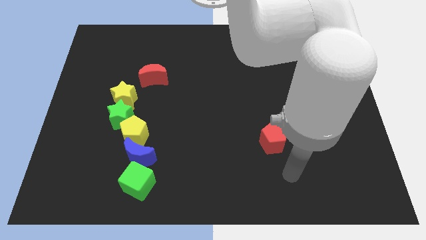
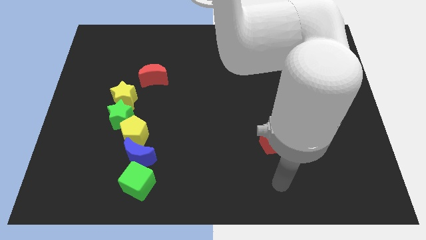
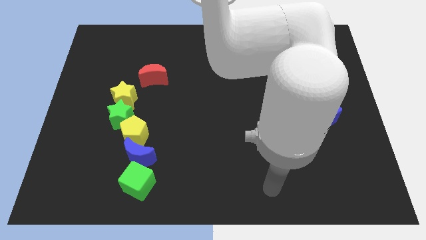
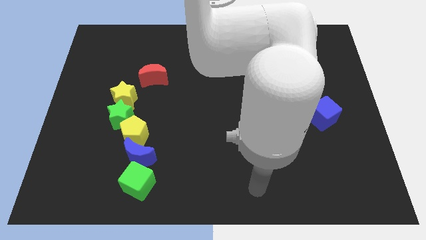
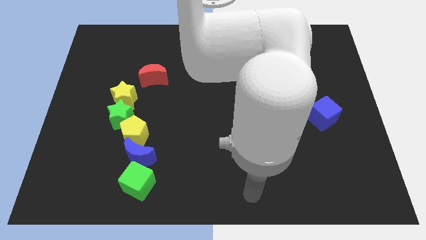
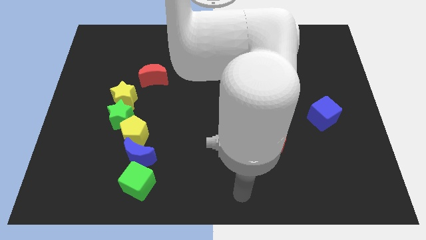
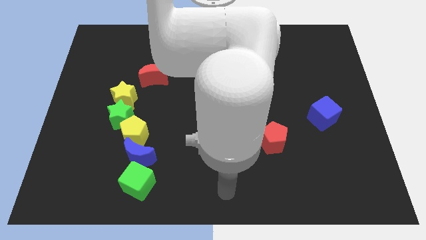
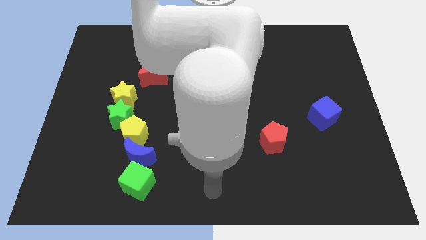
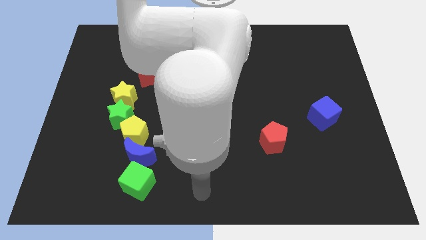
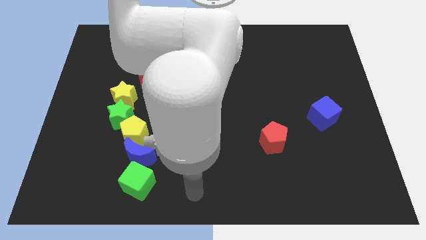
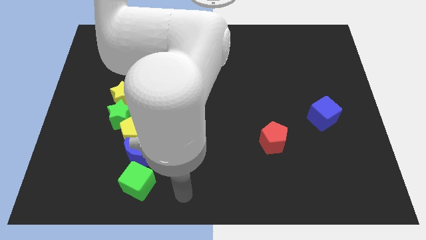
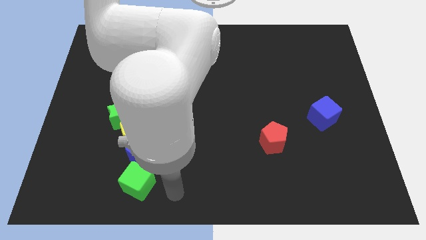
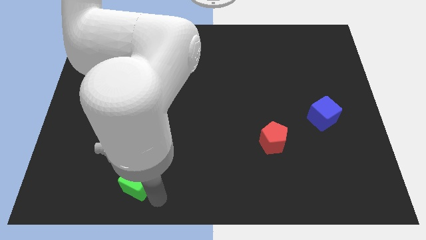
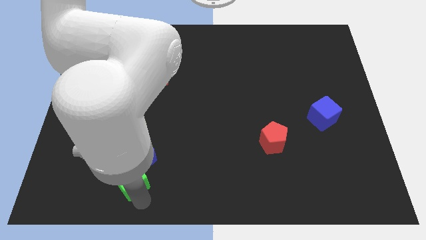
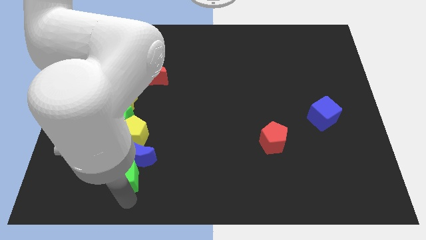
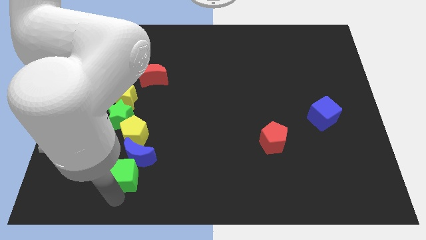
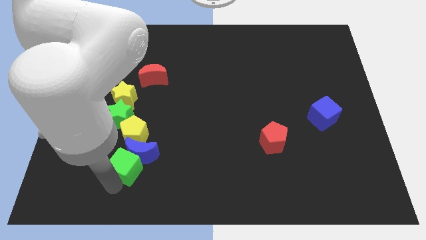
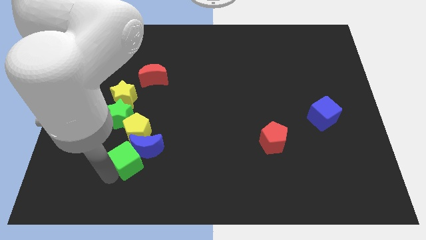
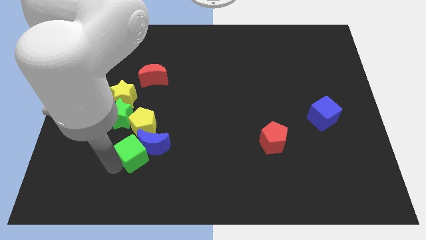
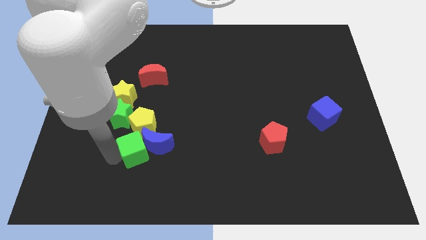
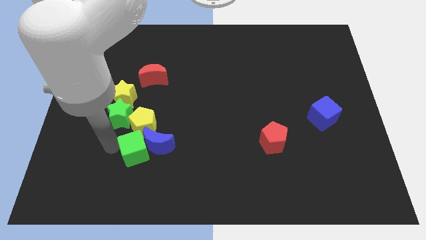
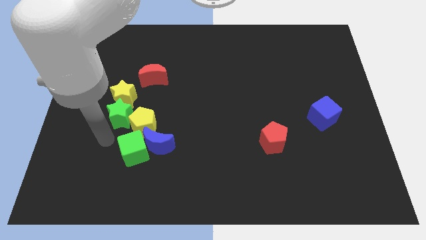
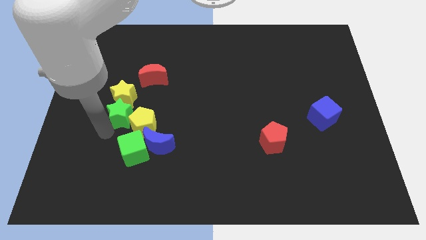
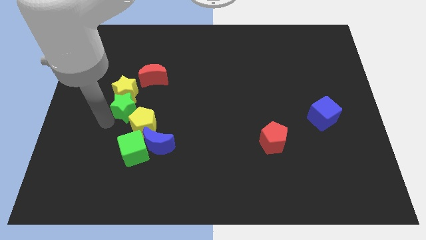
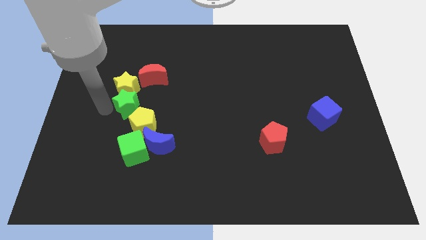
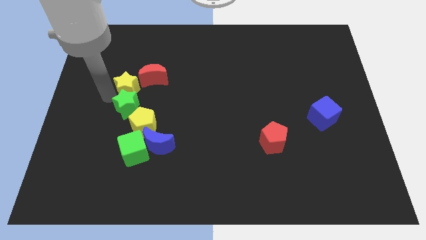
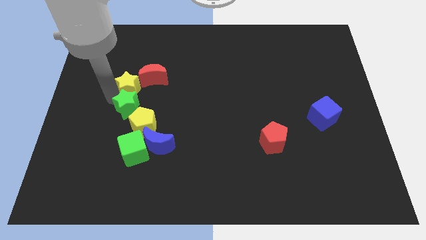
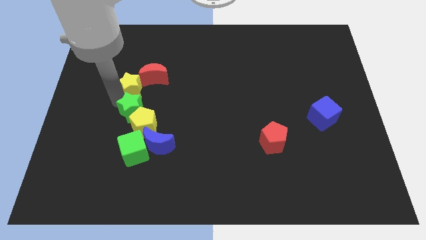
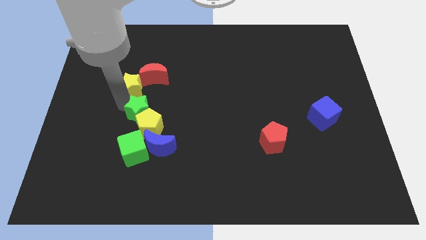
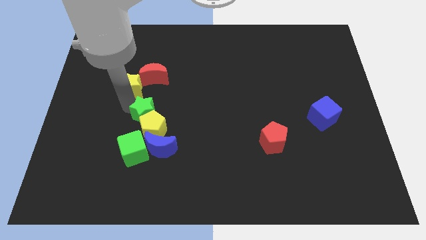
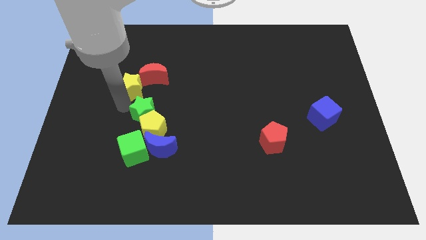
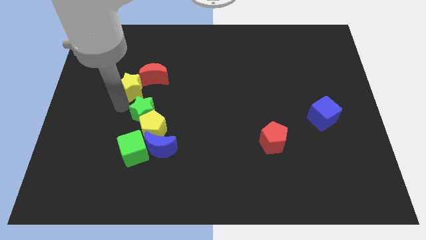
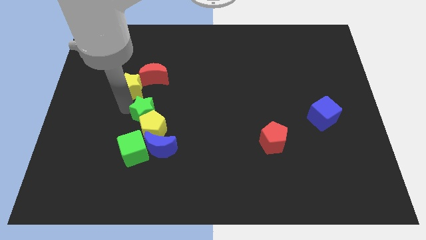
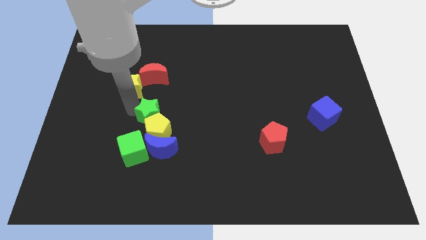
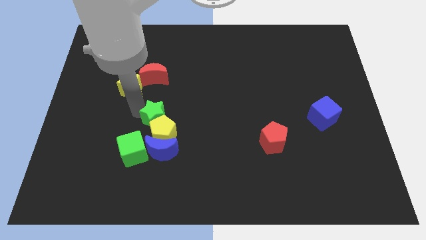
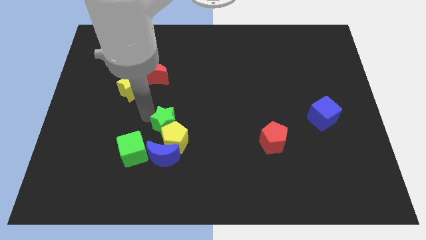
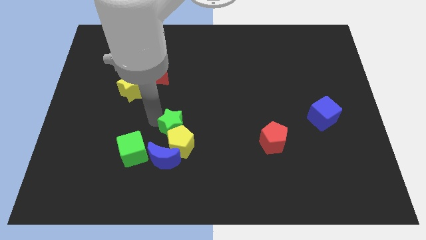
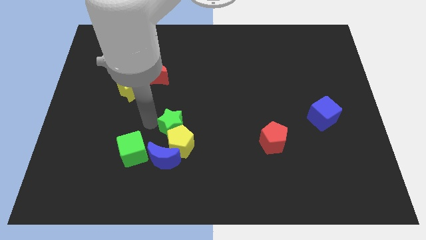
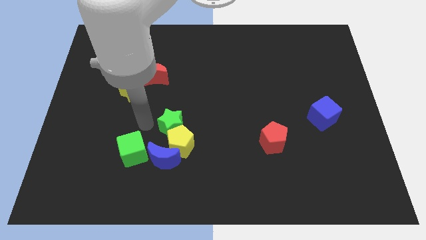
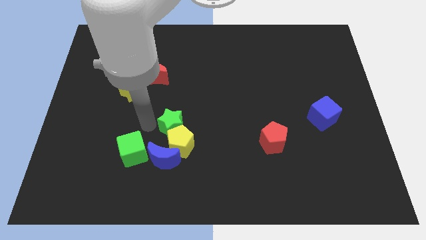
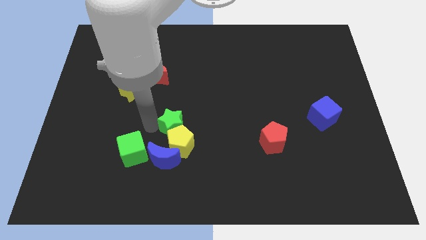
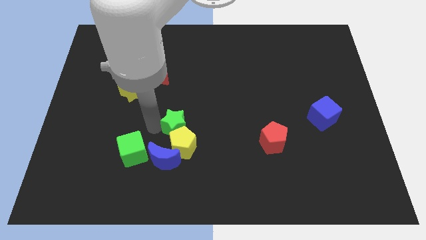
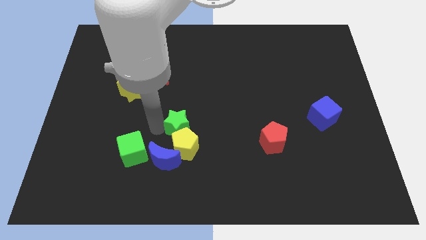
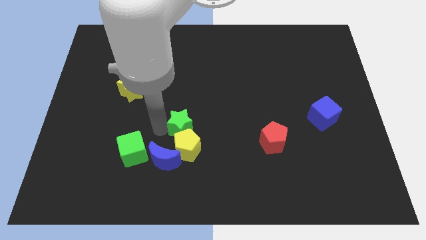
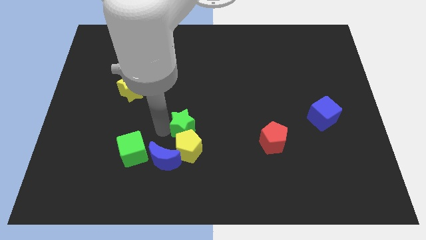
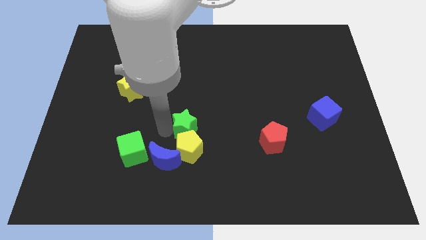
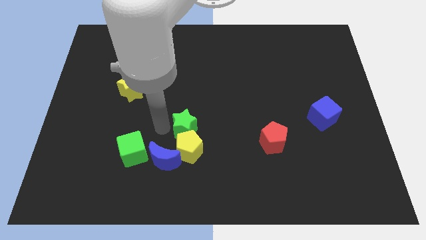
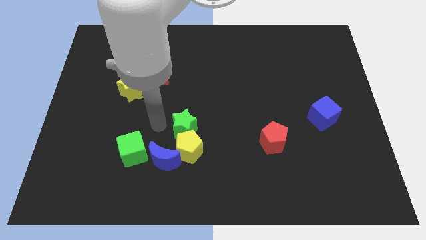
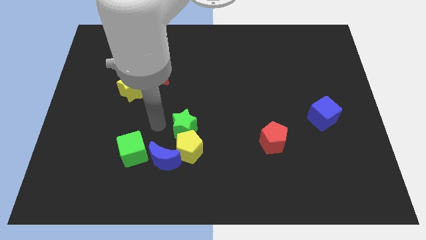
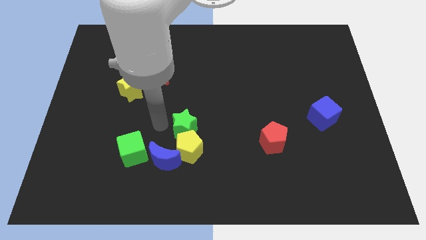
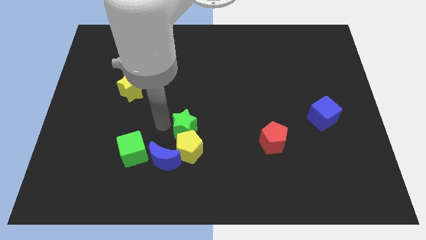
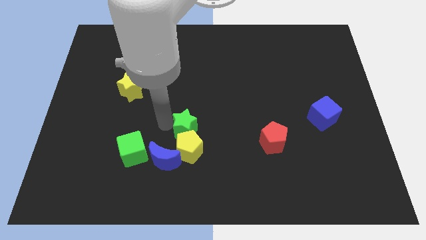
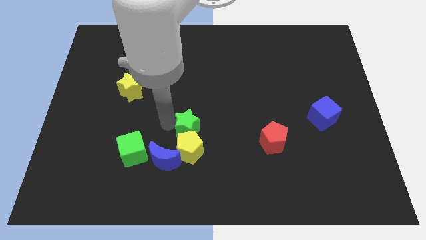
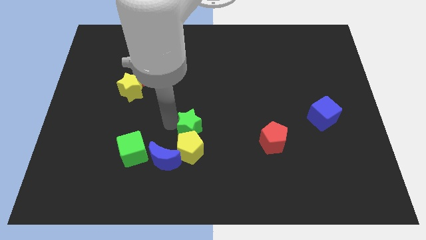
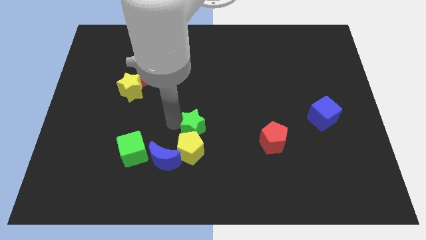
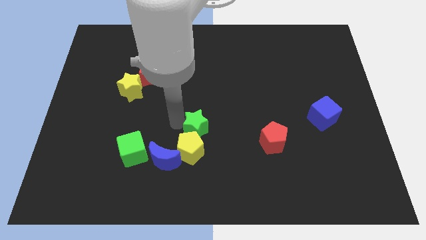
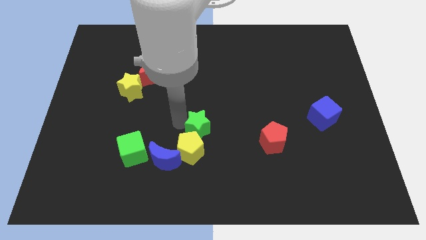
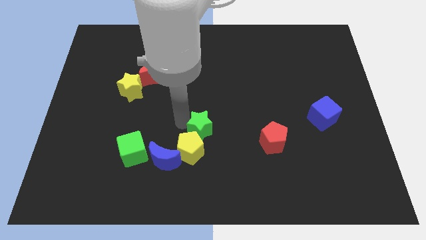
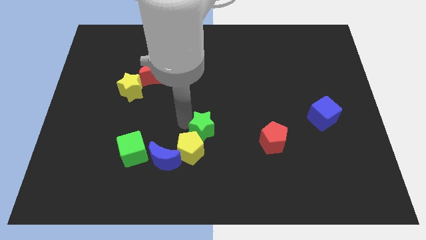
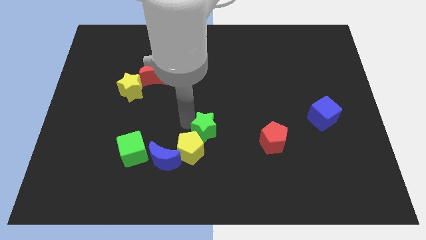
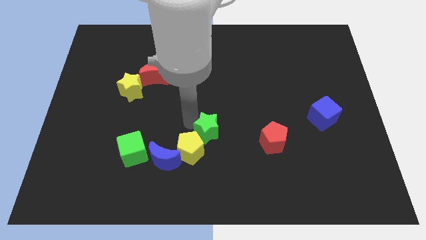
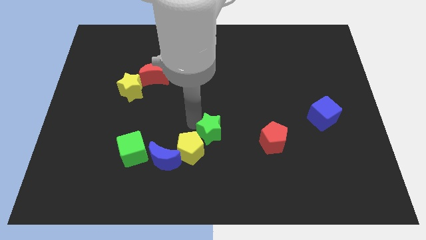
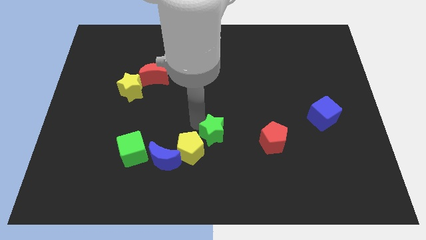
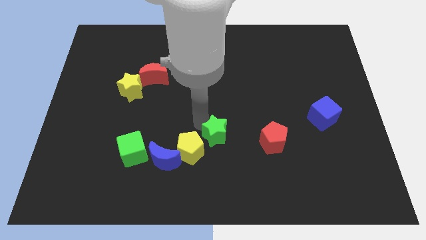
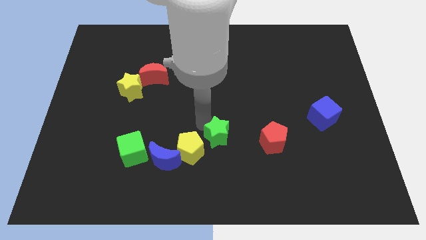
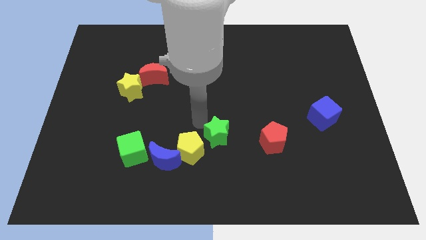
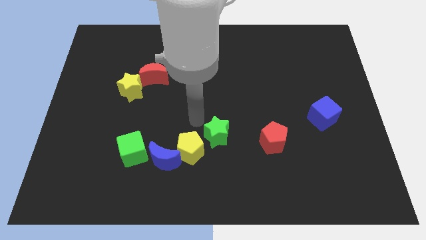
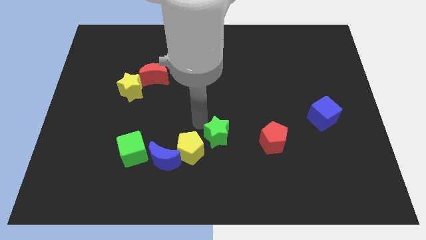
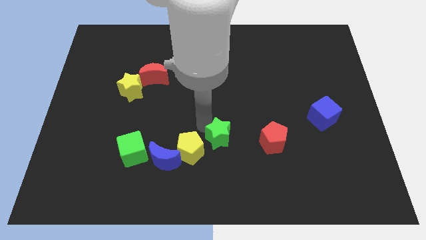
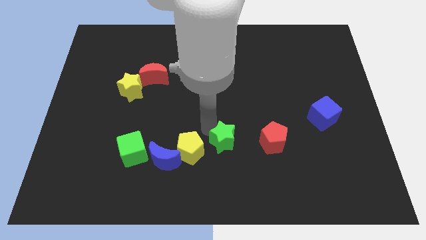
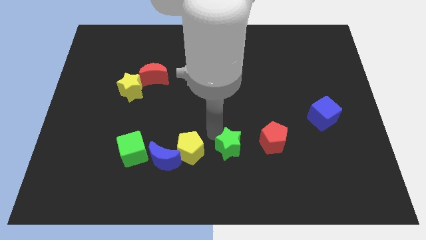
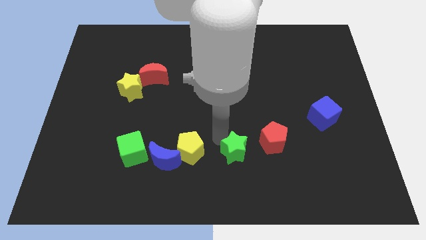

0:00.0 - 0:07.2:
put the green star diagonally down and to the left of the red pentagon

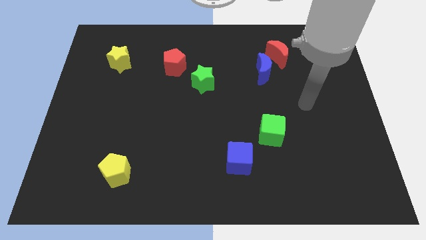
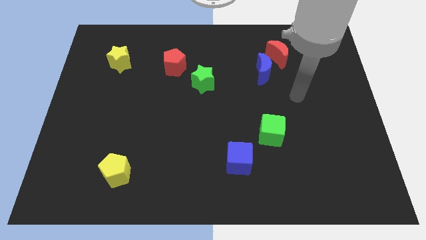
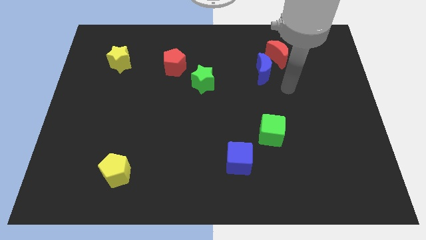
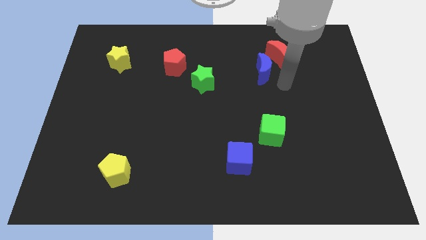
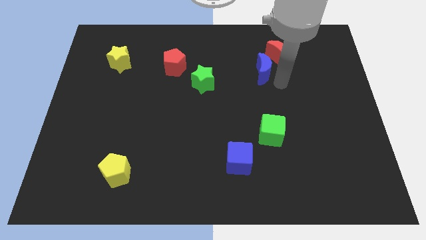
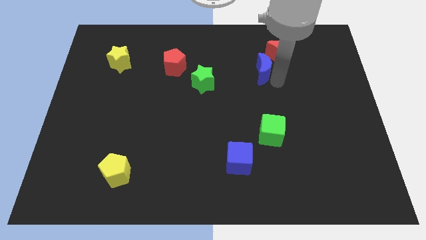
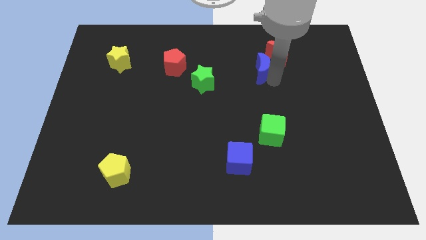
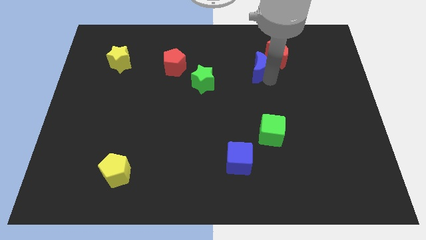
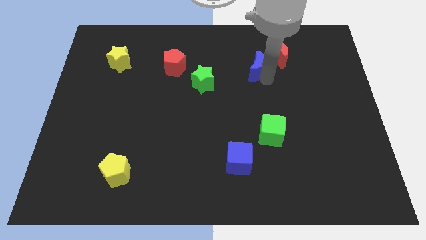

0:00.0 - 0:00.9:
push the blue moon left of the red moon
